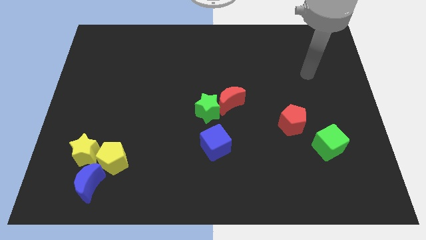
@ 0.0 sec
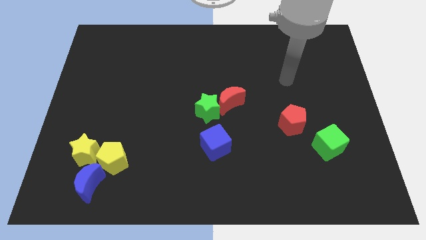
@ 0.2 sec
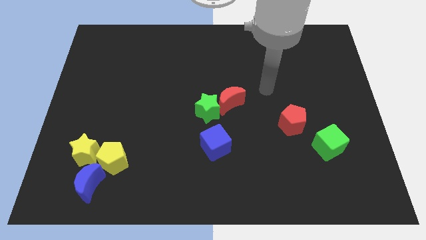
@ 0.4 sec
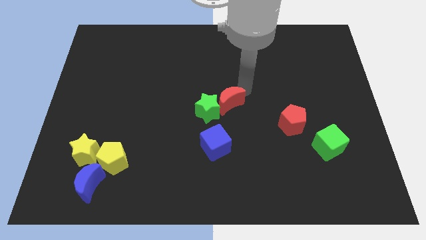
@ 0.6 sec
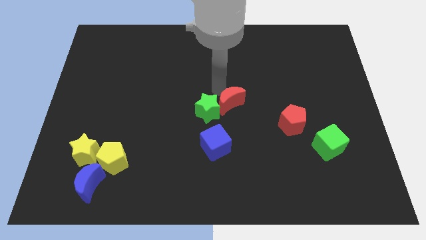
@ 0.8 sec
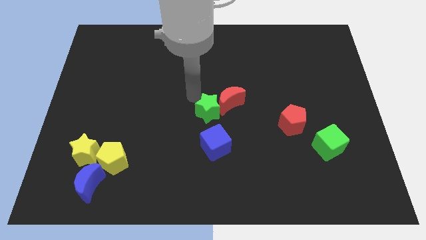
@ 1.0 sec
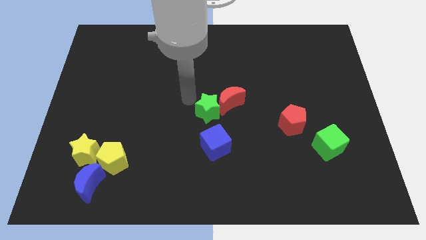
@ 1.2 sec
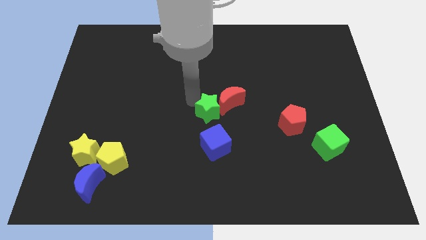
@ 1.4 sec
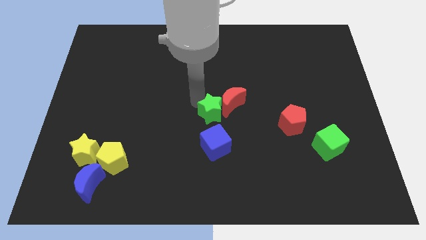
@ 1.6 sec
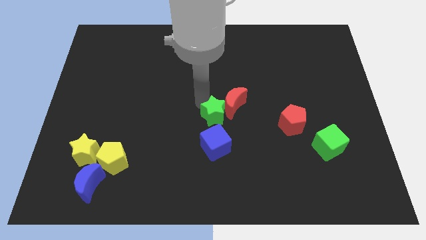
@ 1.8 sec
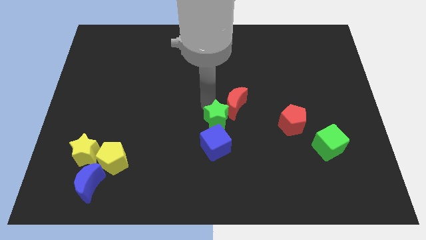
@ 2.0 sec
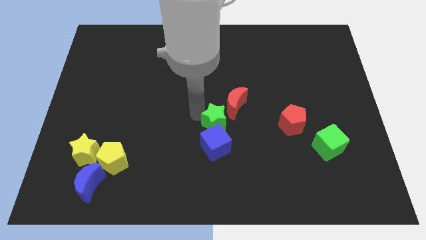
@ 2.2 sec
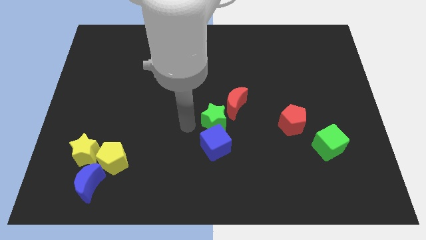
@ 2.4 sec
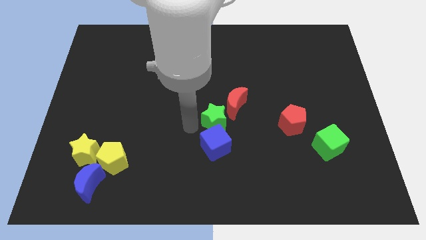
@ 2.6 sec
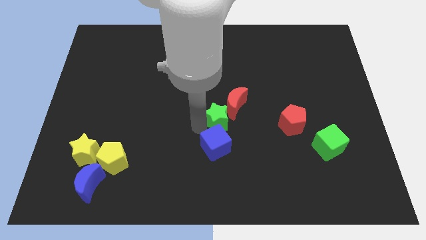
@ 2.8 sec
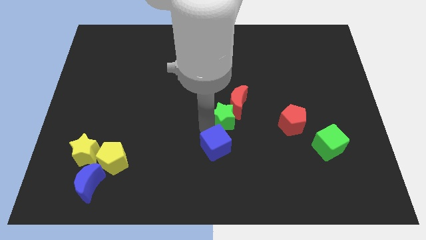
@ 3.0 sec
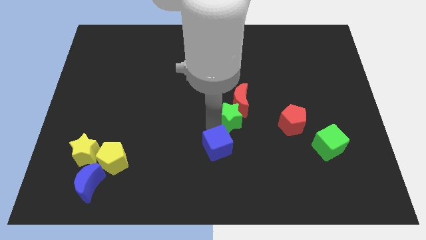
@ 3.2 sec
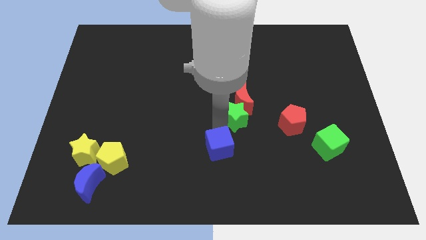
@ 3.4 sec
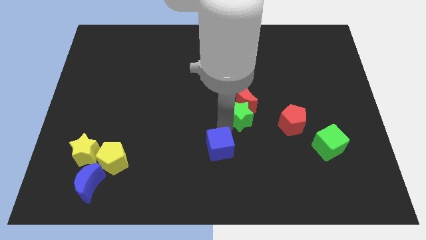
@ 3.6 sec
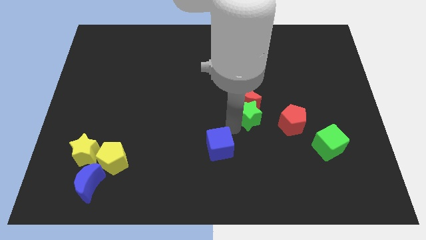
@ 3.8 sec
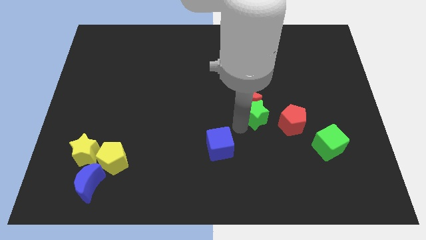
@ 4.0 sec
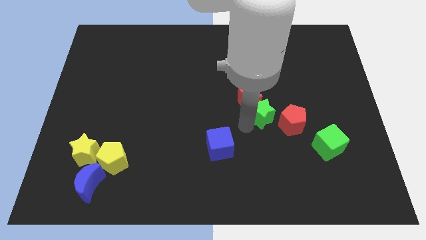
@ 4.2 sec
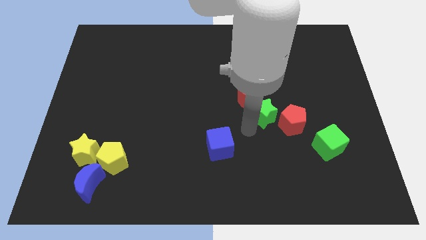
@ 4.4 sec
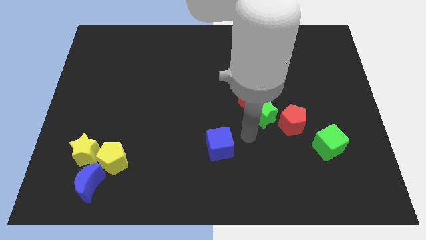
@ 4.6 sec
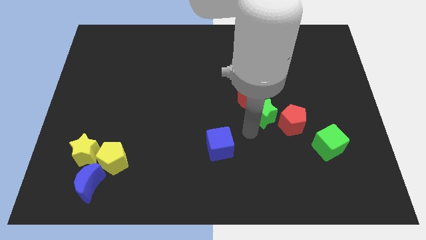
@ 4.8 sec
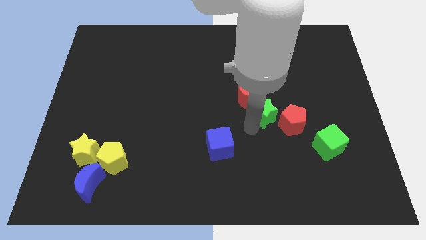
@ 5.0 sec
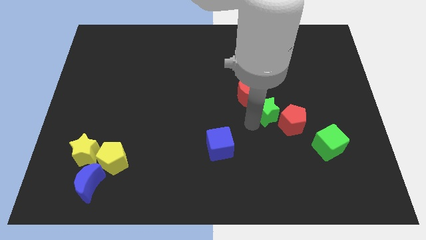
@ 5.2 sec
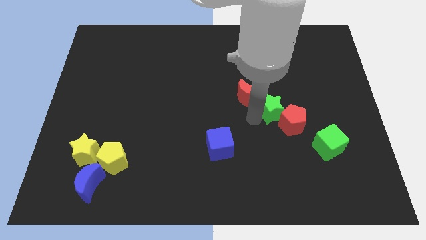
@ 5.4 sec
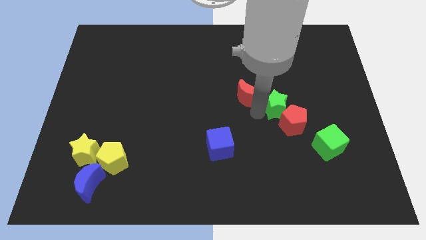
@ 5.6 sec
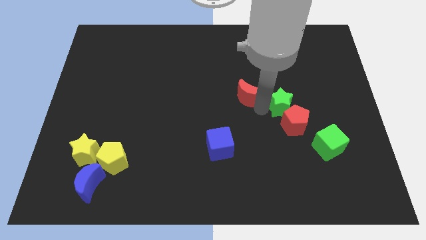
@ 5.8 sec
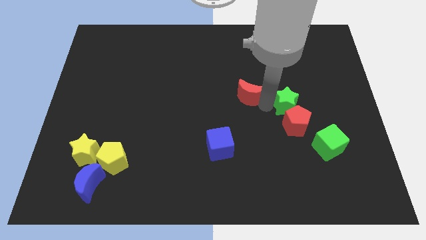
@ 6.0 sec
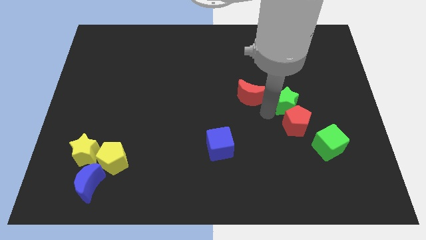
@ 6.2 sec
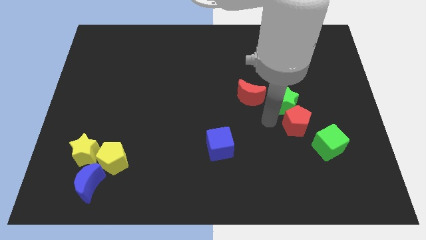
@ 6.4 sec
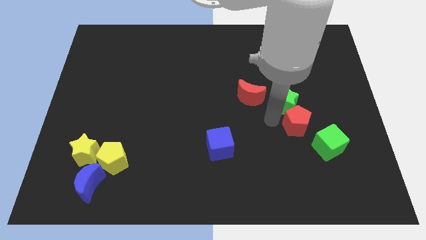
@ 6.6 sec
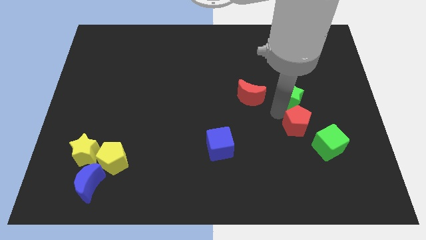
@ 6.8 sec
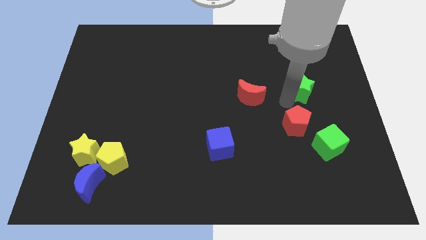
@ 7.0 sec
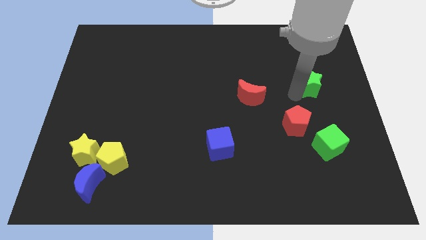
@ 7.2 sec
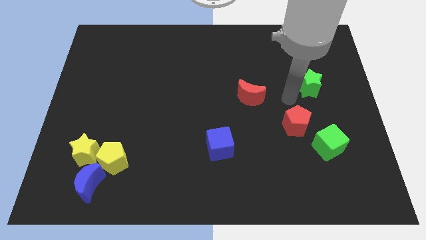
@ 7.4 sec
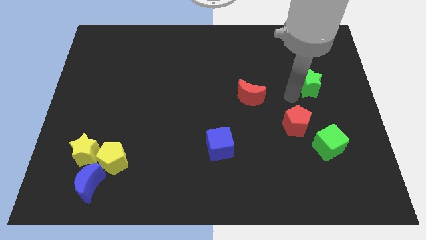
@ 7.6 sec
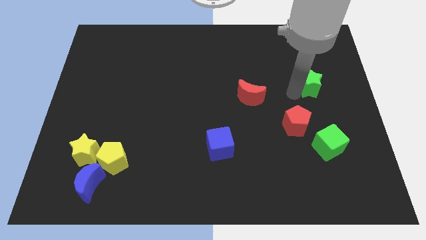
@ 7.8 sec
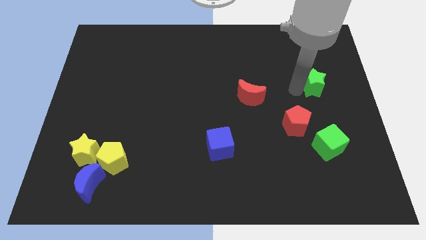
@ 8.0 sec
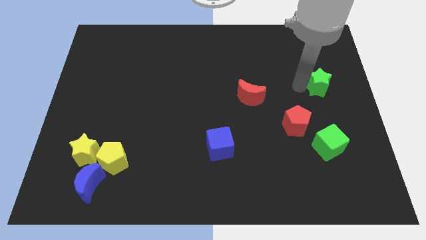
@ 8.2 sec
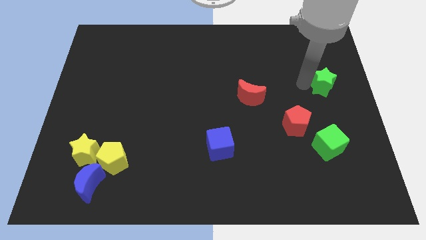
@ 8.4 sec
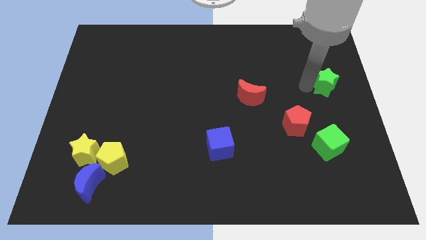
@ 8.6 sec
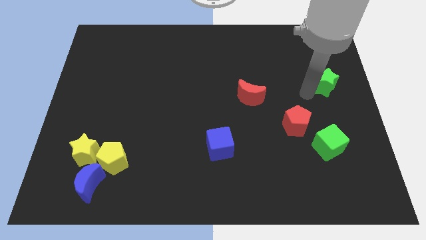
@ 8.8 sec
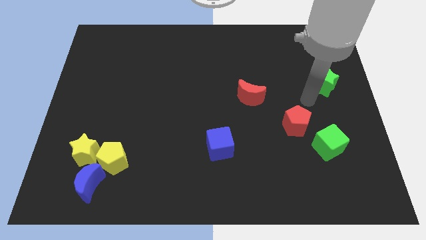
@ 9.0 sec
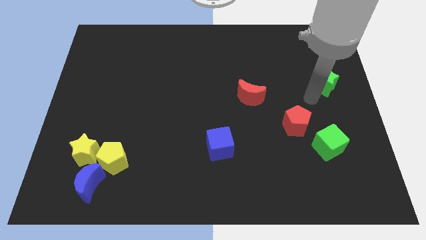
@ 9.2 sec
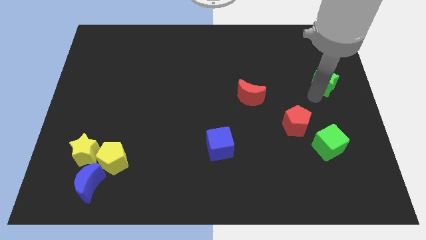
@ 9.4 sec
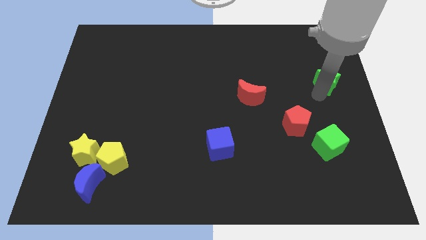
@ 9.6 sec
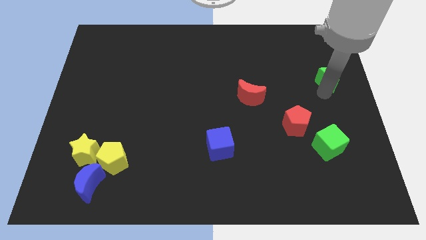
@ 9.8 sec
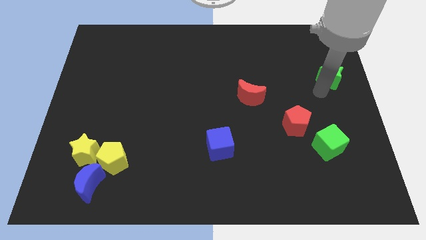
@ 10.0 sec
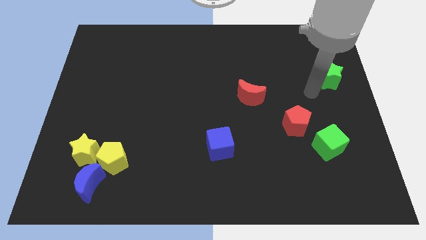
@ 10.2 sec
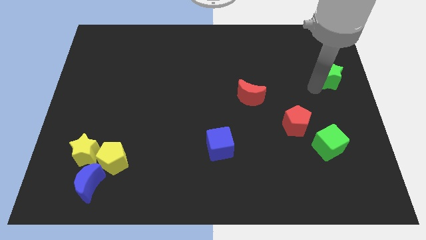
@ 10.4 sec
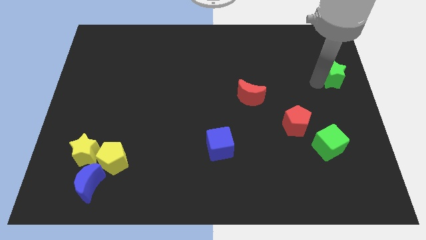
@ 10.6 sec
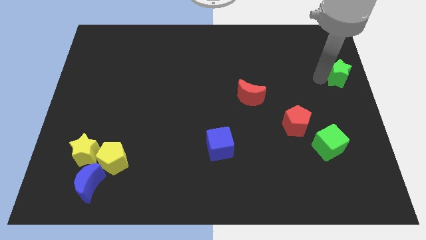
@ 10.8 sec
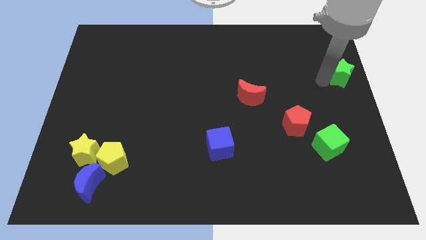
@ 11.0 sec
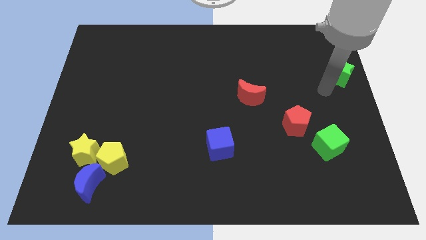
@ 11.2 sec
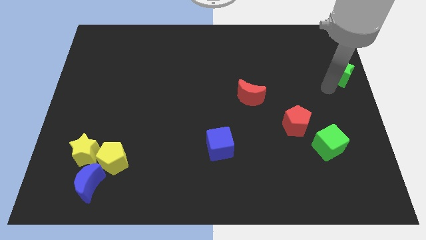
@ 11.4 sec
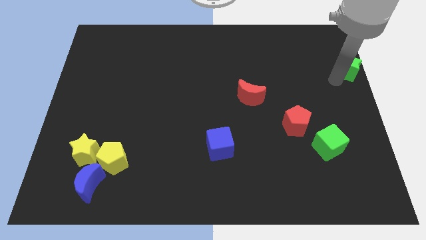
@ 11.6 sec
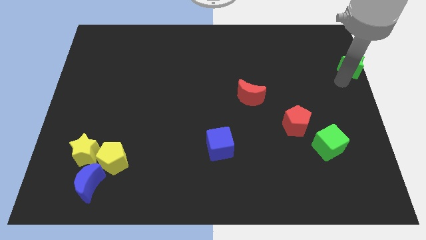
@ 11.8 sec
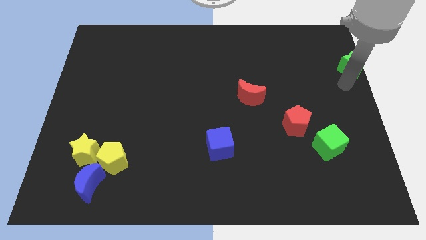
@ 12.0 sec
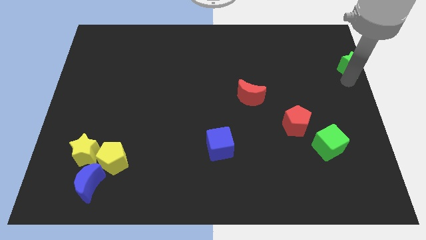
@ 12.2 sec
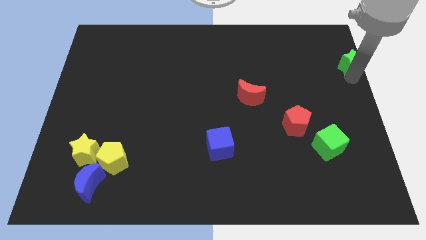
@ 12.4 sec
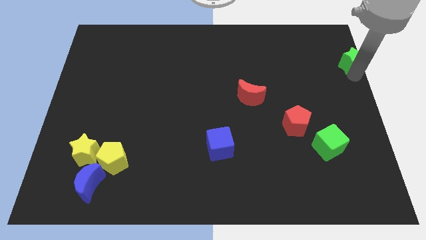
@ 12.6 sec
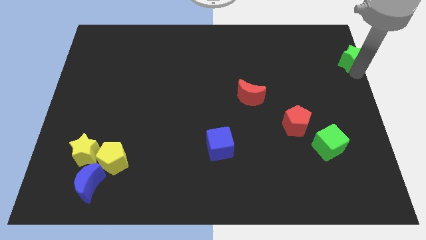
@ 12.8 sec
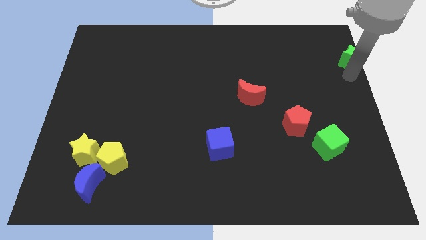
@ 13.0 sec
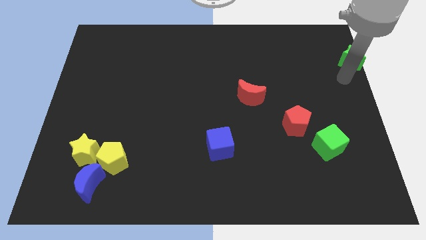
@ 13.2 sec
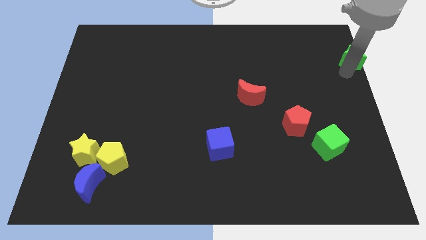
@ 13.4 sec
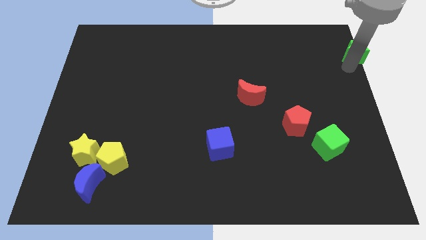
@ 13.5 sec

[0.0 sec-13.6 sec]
slide the green star to the top right of the board
